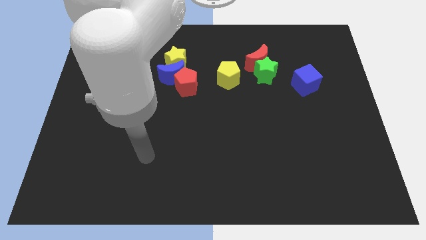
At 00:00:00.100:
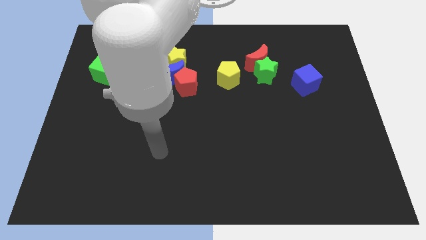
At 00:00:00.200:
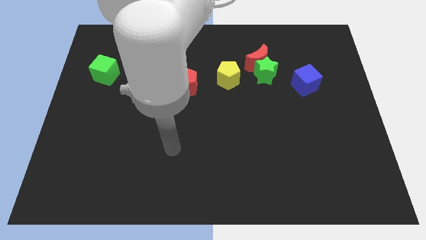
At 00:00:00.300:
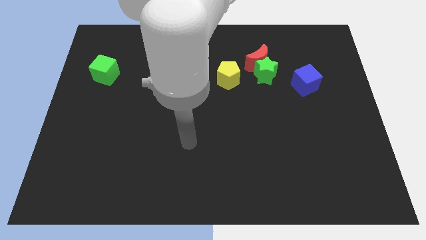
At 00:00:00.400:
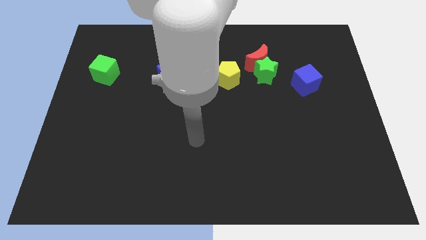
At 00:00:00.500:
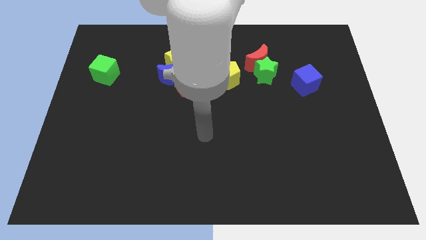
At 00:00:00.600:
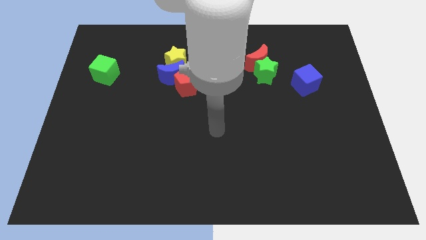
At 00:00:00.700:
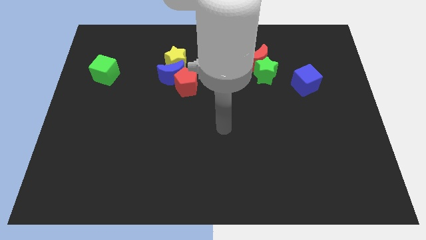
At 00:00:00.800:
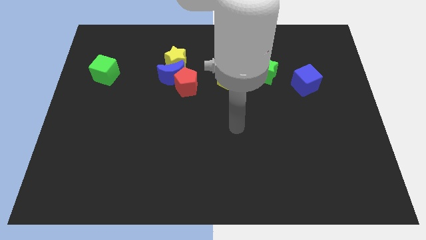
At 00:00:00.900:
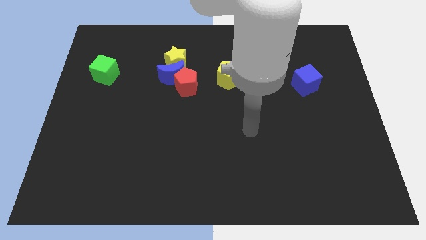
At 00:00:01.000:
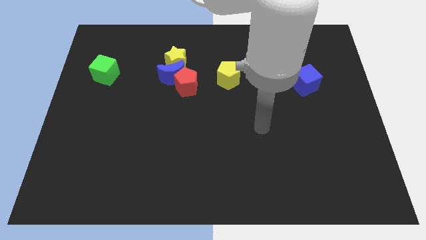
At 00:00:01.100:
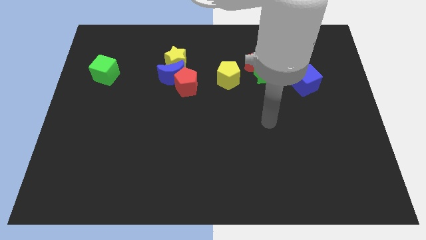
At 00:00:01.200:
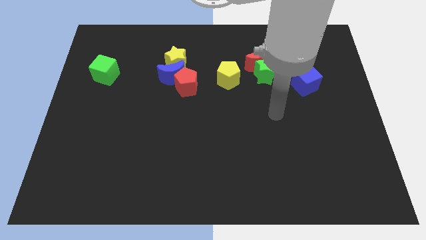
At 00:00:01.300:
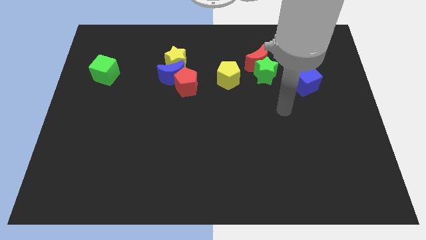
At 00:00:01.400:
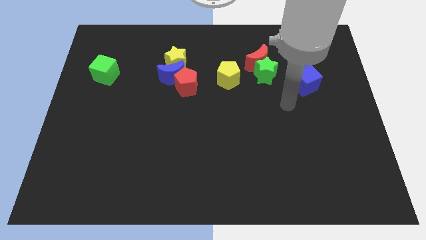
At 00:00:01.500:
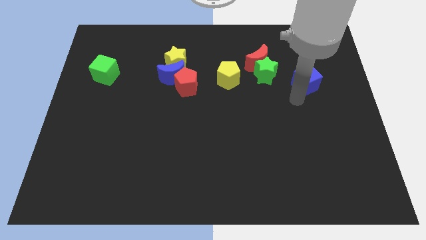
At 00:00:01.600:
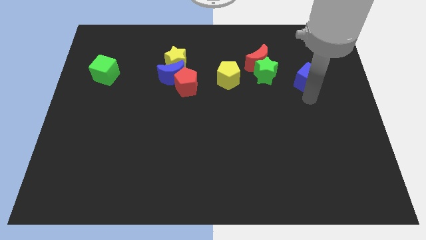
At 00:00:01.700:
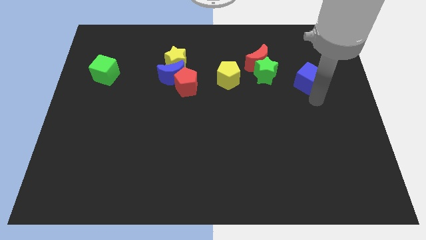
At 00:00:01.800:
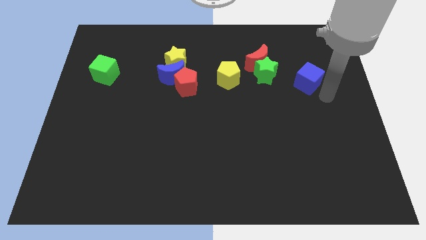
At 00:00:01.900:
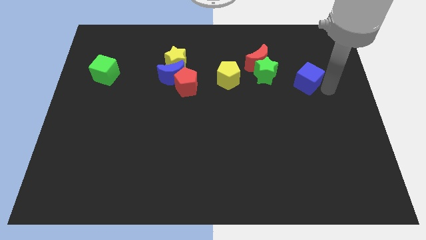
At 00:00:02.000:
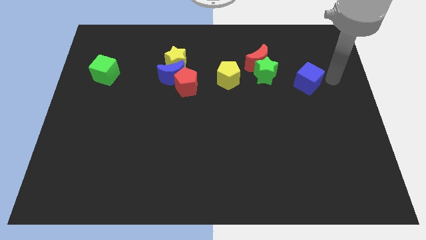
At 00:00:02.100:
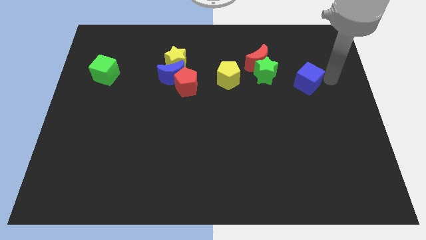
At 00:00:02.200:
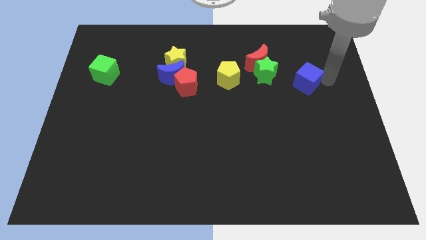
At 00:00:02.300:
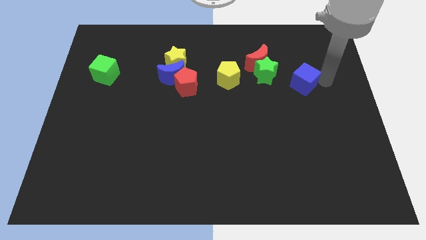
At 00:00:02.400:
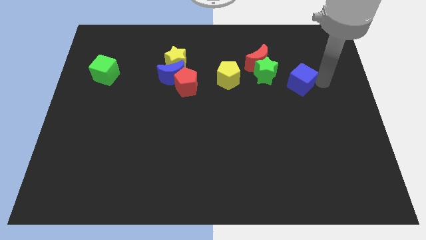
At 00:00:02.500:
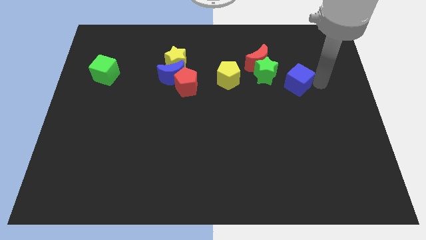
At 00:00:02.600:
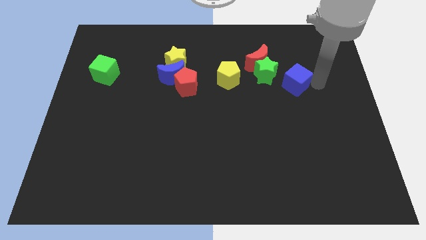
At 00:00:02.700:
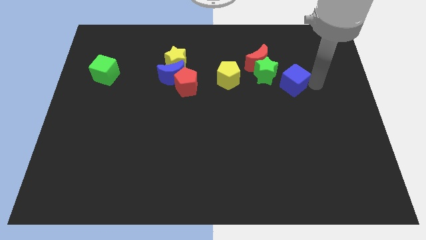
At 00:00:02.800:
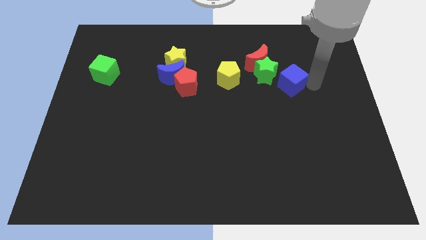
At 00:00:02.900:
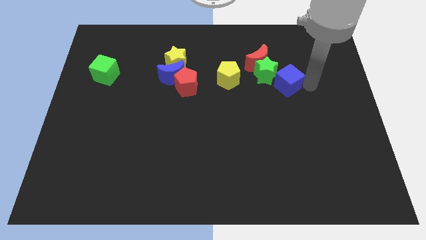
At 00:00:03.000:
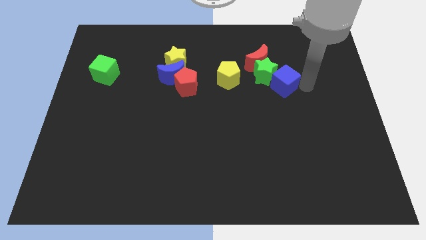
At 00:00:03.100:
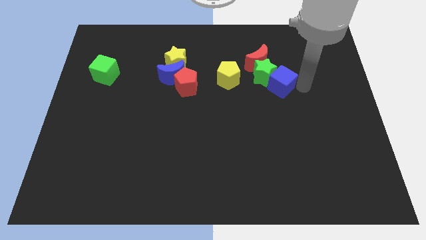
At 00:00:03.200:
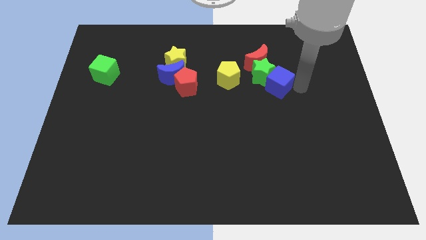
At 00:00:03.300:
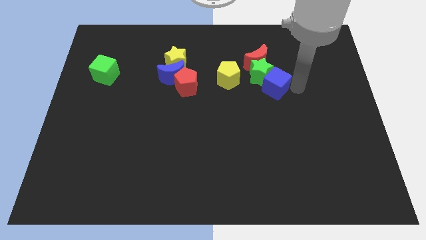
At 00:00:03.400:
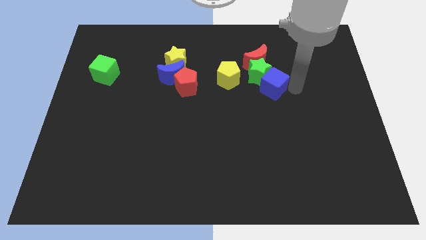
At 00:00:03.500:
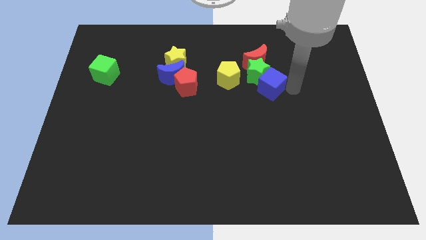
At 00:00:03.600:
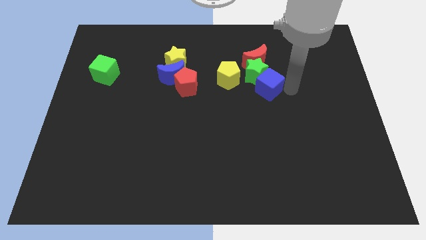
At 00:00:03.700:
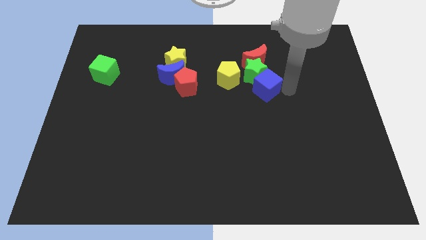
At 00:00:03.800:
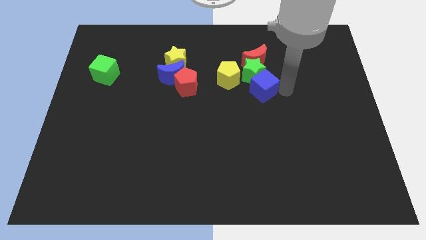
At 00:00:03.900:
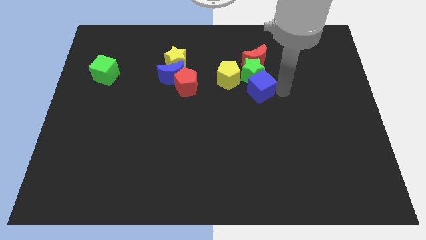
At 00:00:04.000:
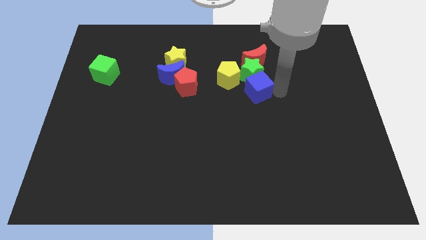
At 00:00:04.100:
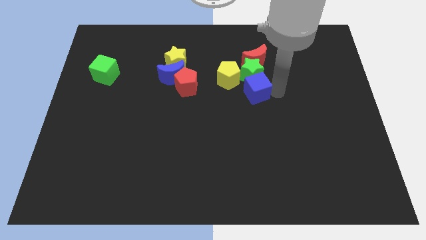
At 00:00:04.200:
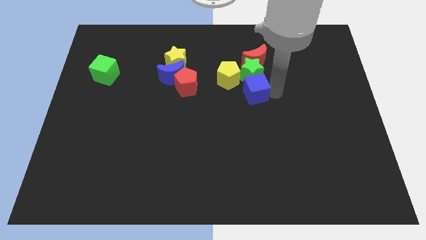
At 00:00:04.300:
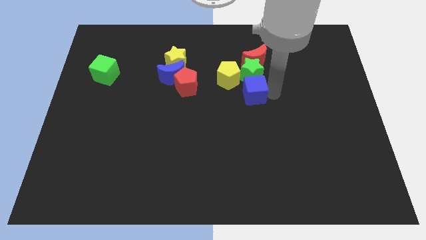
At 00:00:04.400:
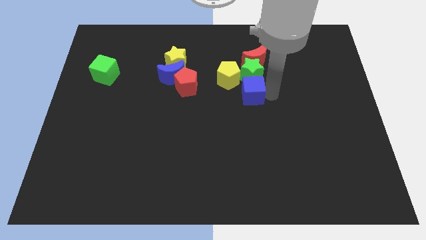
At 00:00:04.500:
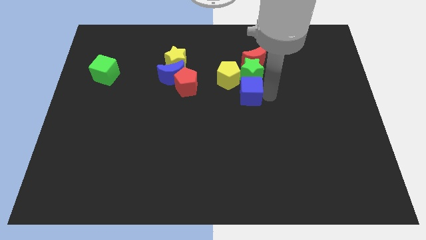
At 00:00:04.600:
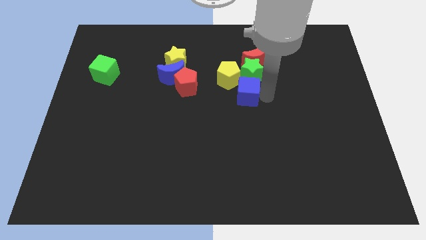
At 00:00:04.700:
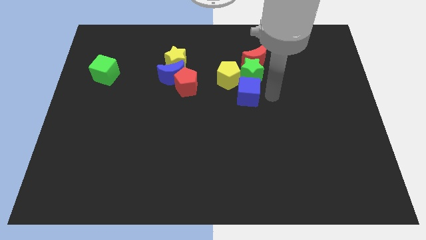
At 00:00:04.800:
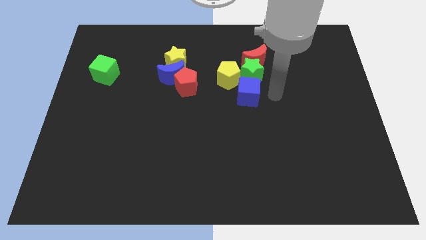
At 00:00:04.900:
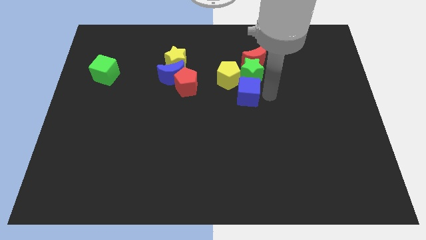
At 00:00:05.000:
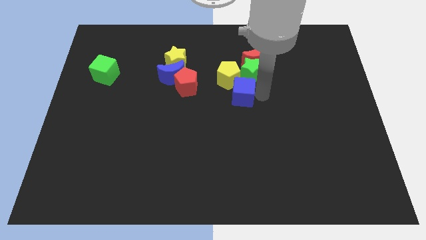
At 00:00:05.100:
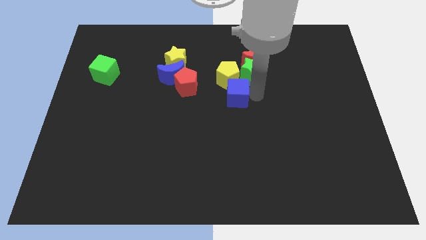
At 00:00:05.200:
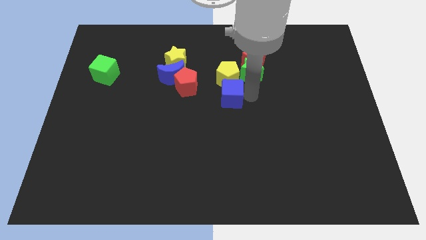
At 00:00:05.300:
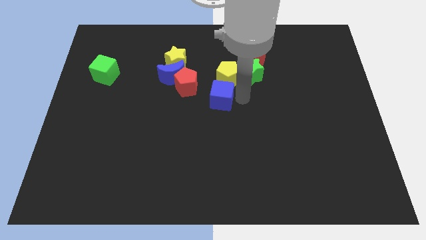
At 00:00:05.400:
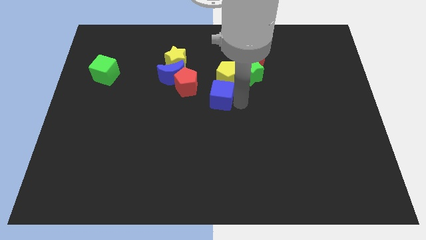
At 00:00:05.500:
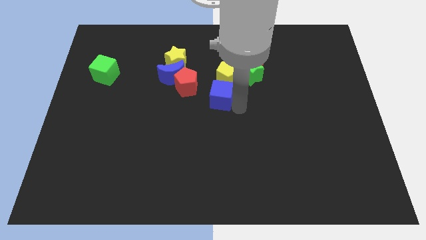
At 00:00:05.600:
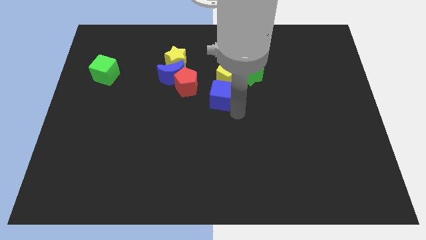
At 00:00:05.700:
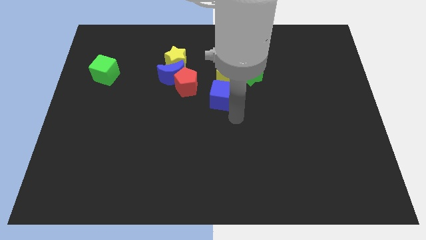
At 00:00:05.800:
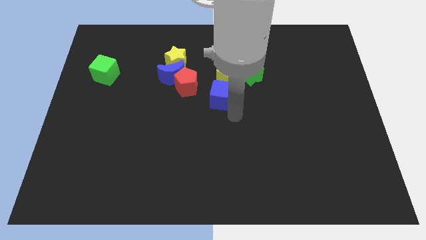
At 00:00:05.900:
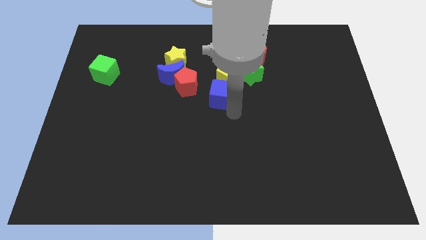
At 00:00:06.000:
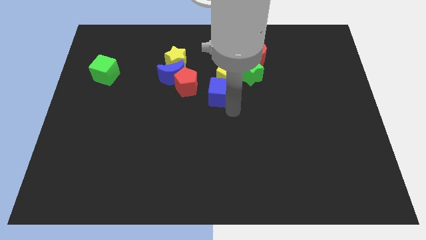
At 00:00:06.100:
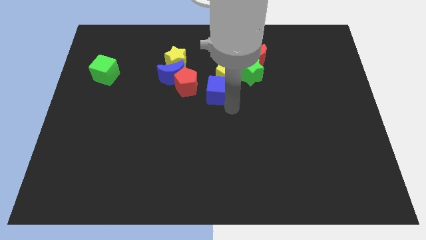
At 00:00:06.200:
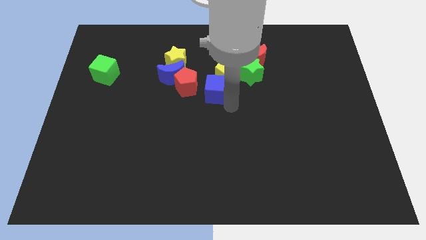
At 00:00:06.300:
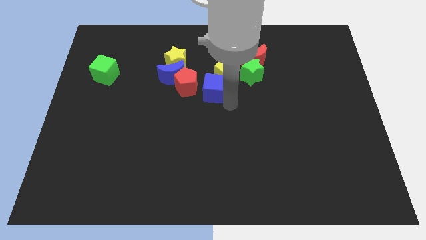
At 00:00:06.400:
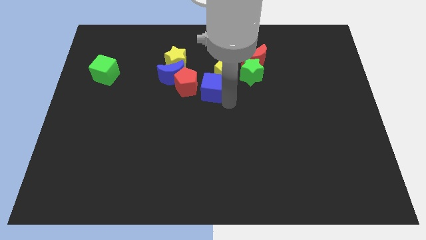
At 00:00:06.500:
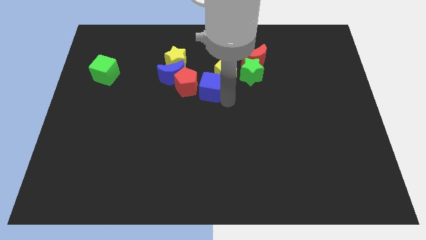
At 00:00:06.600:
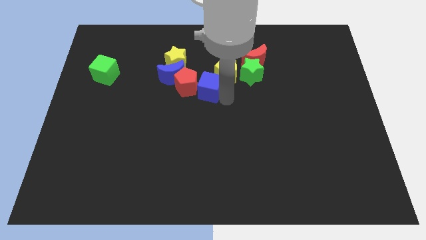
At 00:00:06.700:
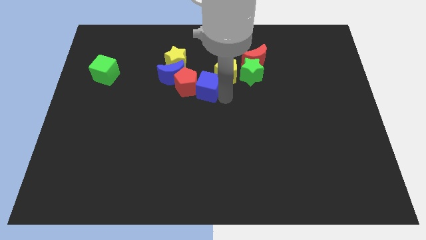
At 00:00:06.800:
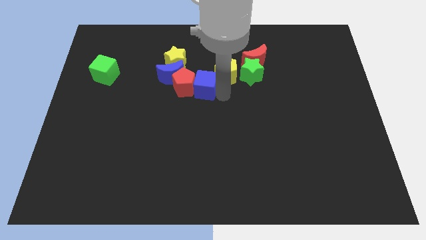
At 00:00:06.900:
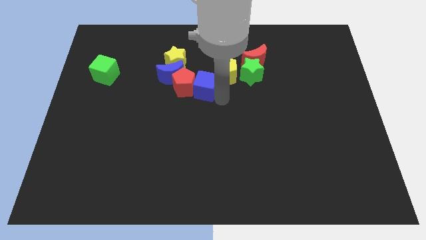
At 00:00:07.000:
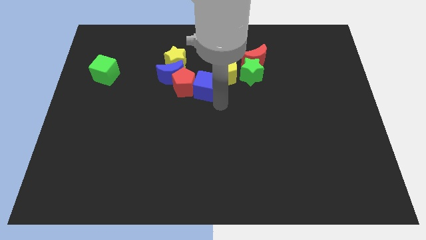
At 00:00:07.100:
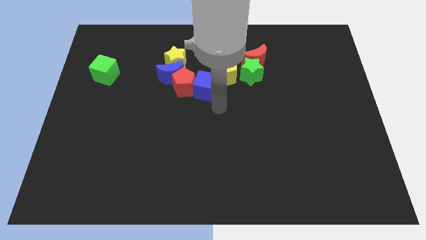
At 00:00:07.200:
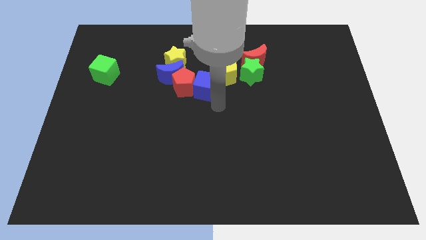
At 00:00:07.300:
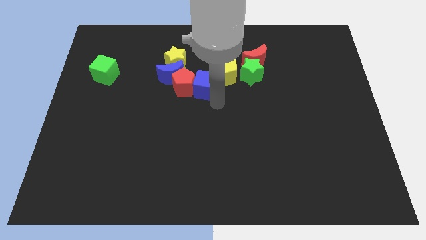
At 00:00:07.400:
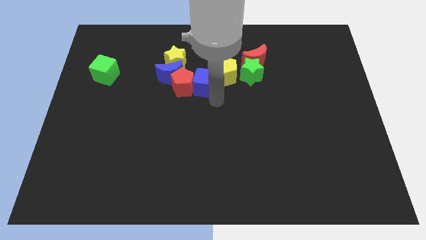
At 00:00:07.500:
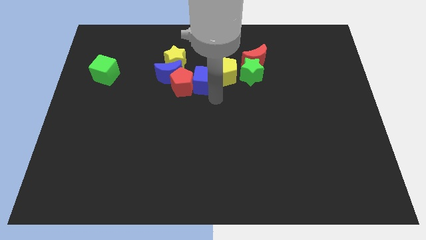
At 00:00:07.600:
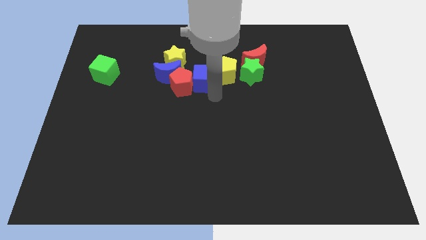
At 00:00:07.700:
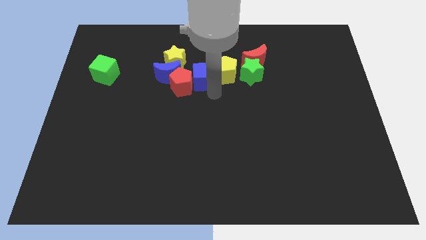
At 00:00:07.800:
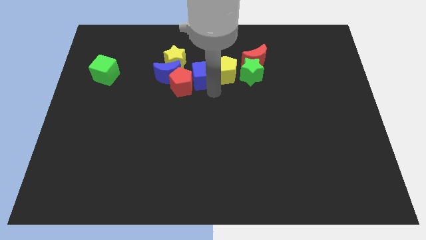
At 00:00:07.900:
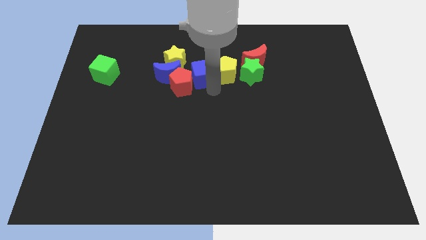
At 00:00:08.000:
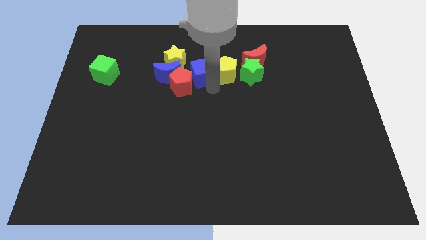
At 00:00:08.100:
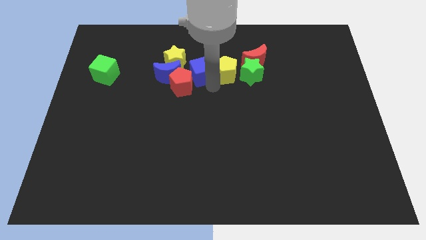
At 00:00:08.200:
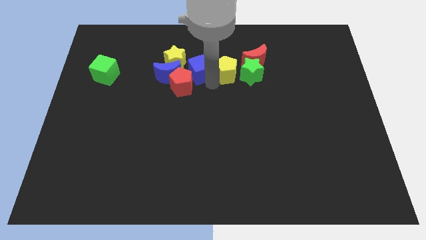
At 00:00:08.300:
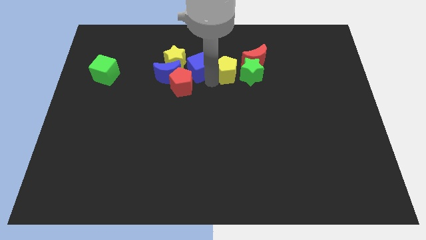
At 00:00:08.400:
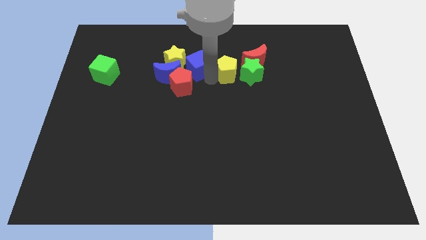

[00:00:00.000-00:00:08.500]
slide the blue cube to the yellow star
